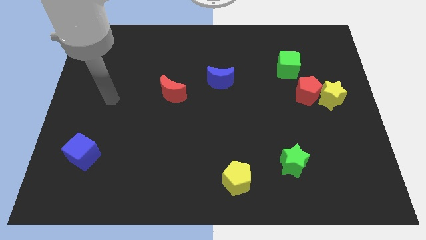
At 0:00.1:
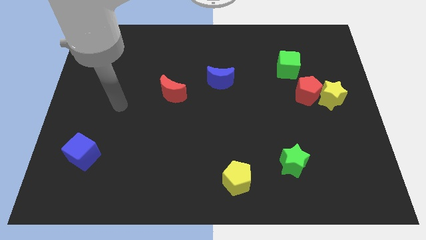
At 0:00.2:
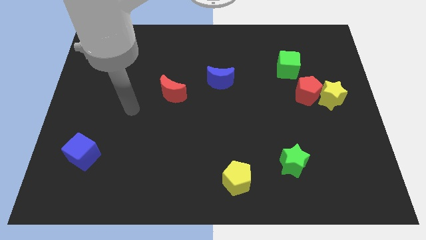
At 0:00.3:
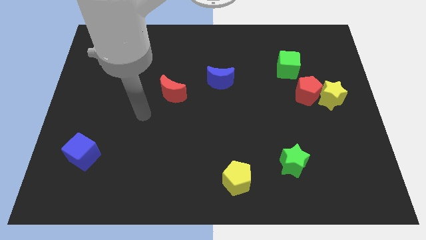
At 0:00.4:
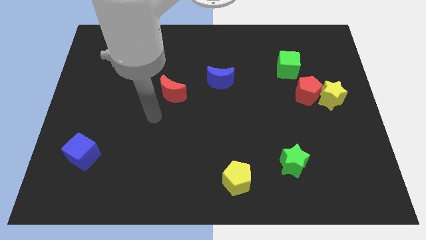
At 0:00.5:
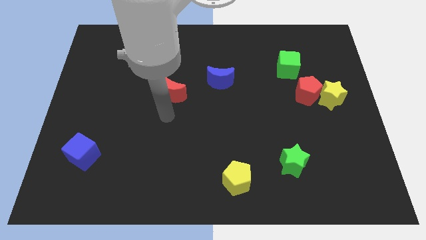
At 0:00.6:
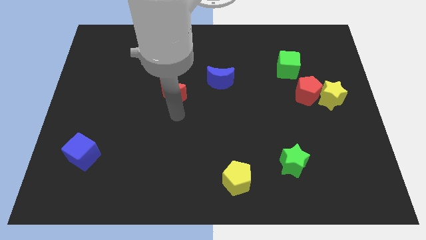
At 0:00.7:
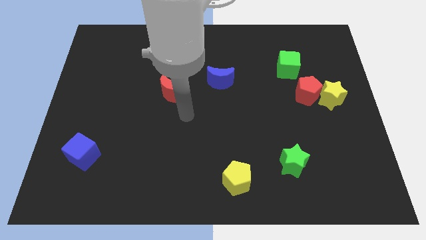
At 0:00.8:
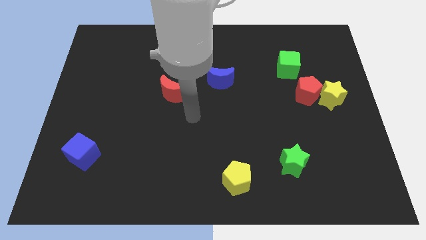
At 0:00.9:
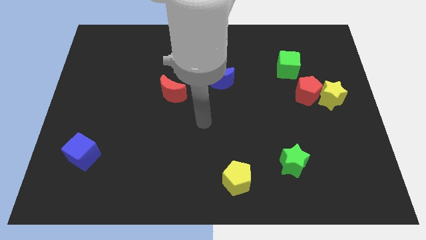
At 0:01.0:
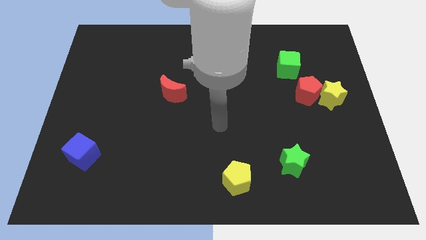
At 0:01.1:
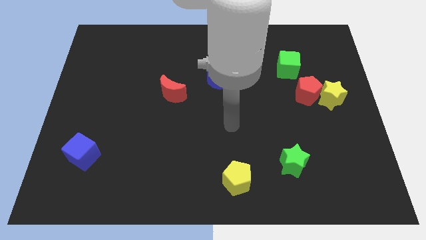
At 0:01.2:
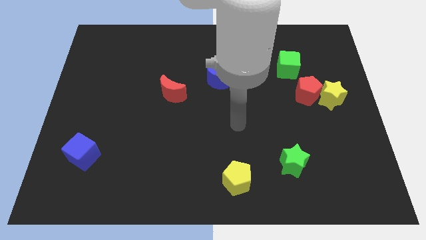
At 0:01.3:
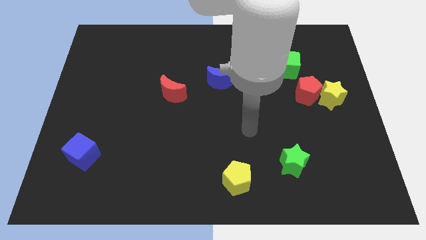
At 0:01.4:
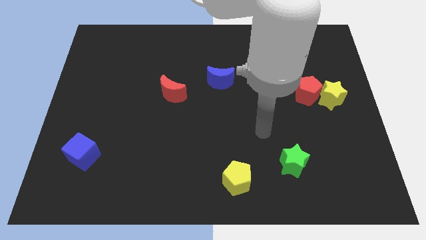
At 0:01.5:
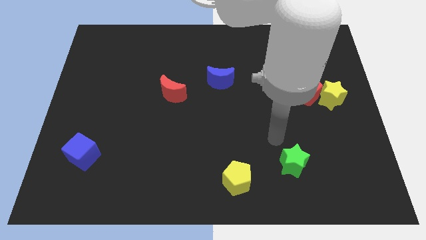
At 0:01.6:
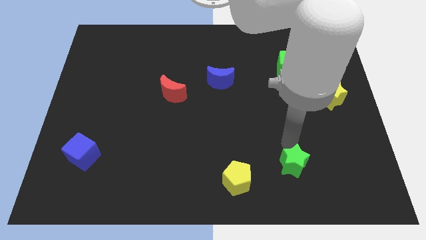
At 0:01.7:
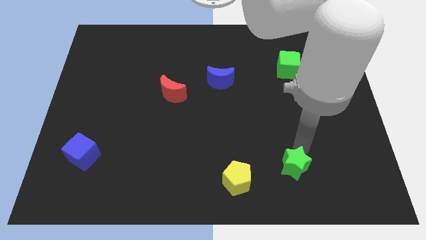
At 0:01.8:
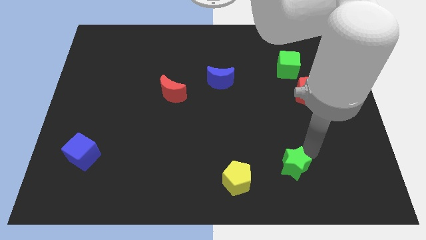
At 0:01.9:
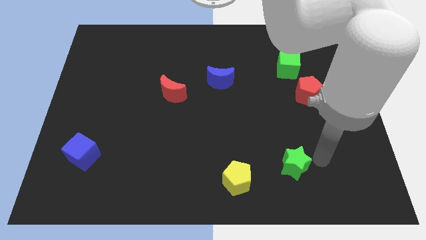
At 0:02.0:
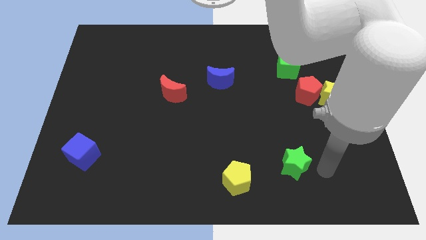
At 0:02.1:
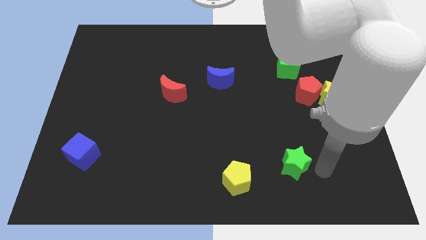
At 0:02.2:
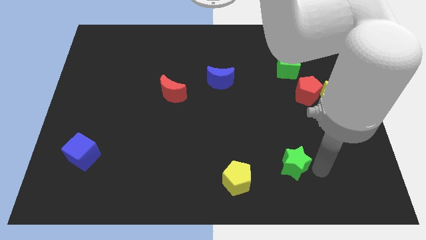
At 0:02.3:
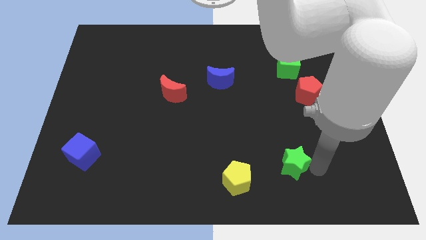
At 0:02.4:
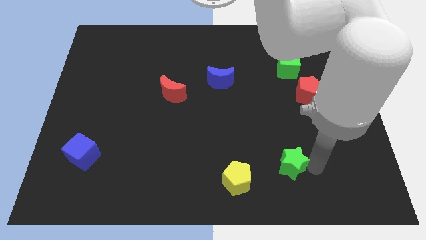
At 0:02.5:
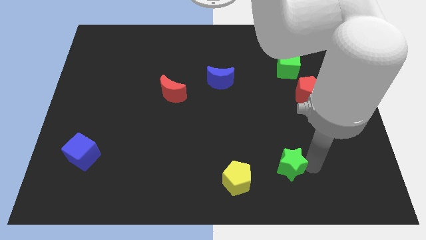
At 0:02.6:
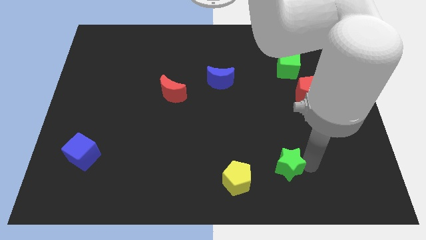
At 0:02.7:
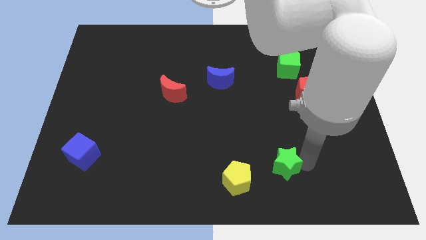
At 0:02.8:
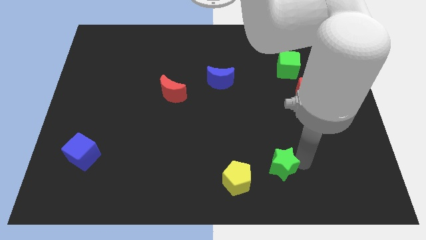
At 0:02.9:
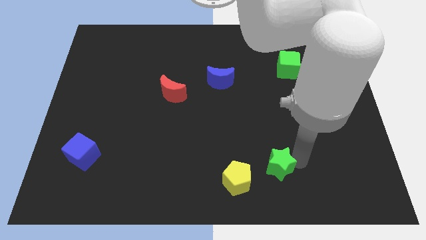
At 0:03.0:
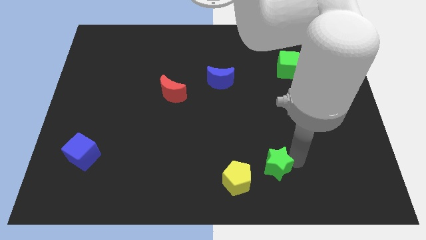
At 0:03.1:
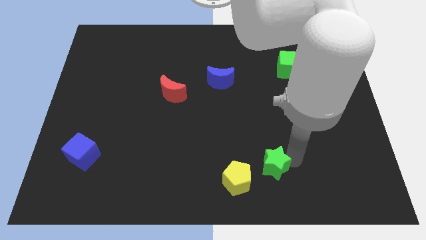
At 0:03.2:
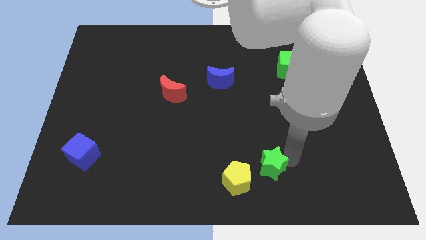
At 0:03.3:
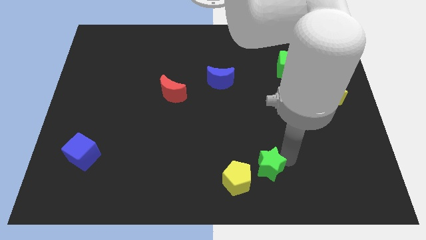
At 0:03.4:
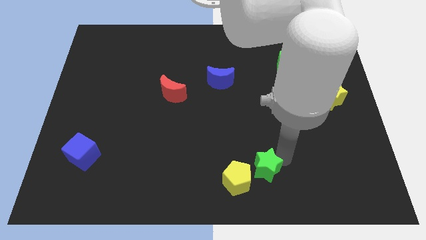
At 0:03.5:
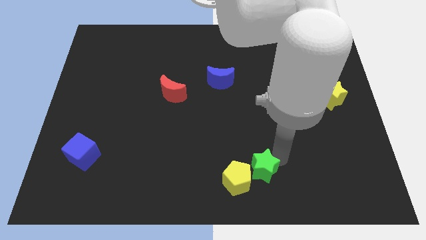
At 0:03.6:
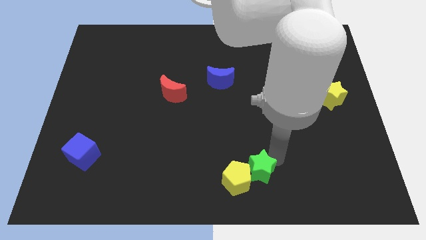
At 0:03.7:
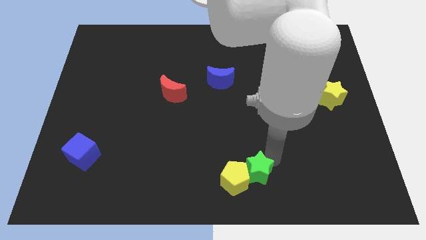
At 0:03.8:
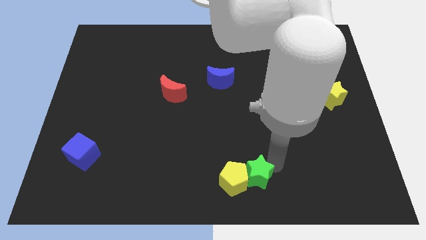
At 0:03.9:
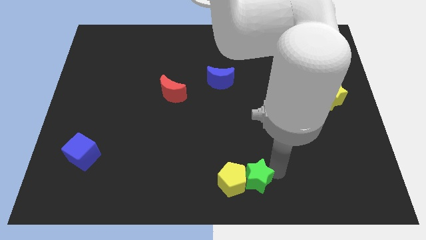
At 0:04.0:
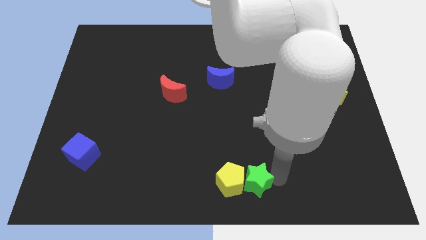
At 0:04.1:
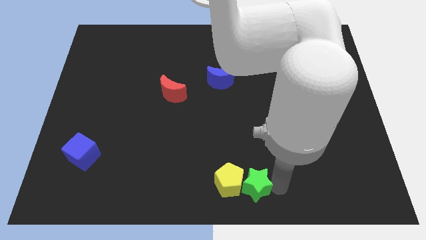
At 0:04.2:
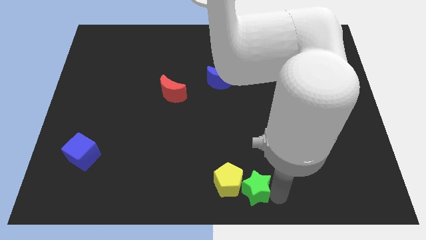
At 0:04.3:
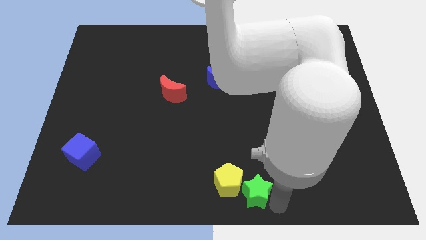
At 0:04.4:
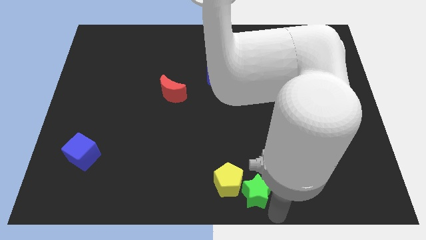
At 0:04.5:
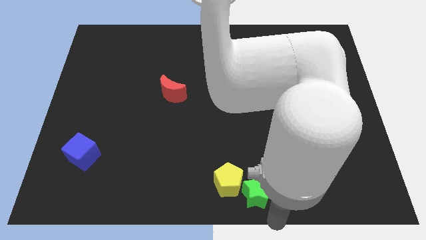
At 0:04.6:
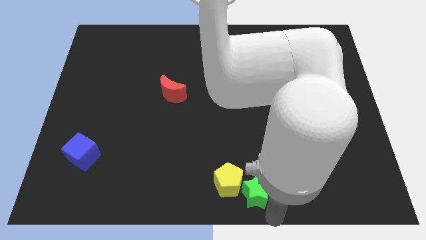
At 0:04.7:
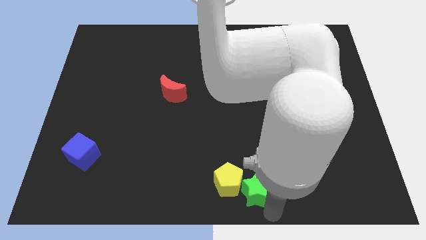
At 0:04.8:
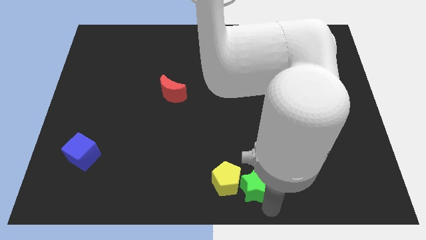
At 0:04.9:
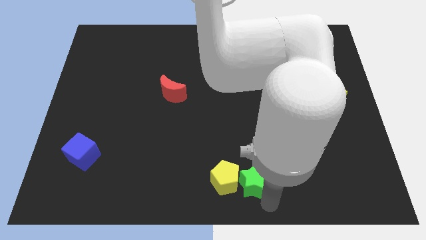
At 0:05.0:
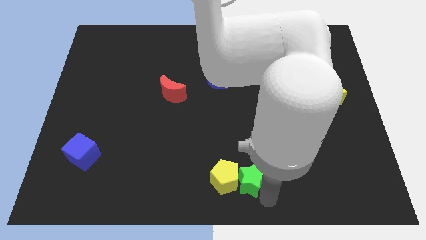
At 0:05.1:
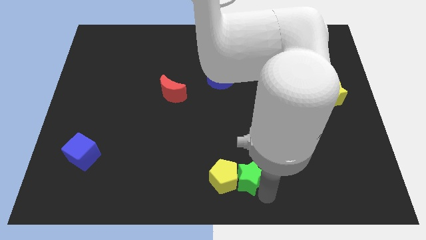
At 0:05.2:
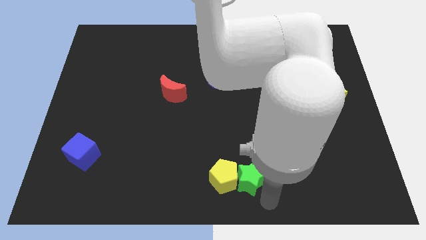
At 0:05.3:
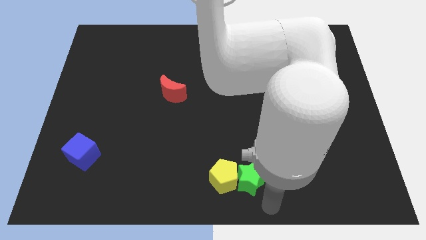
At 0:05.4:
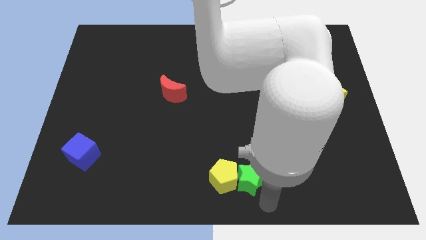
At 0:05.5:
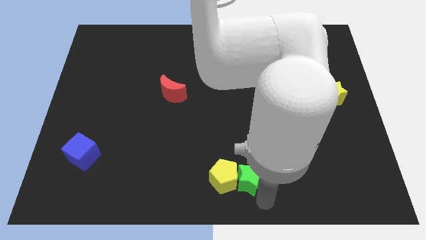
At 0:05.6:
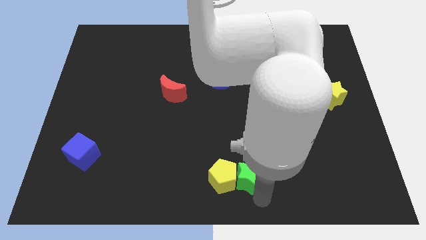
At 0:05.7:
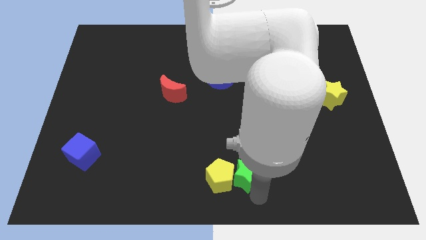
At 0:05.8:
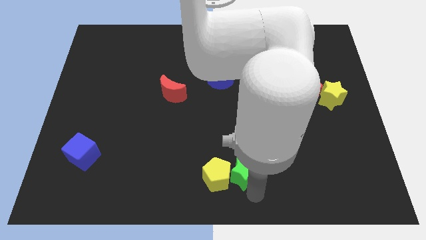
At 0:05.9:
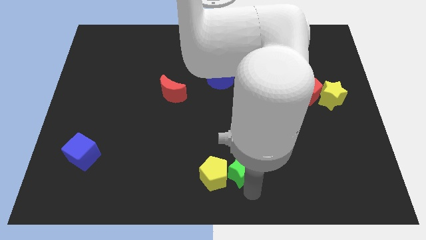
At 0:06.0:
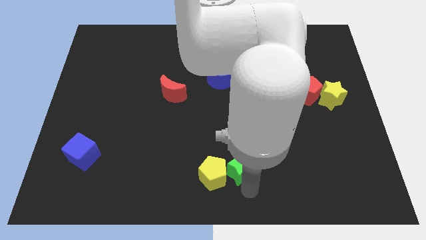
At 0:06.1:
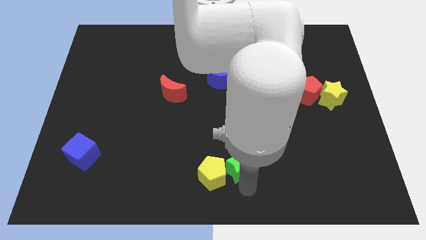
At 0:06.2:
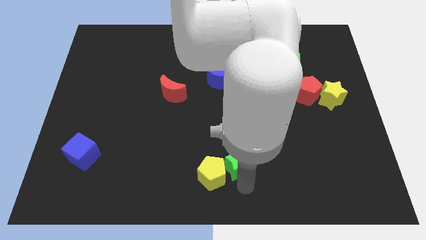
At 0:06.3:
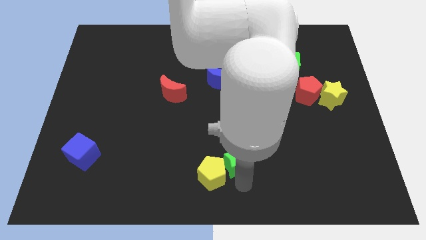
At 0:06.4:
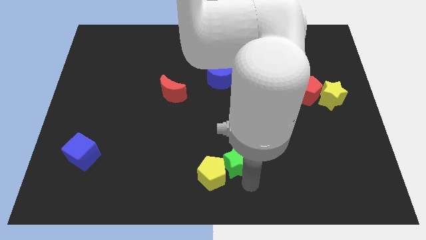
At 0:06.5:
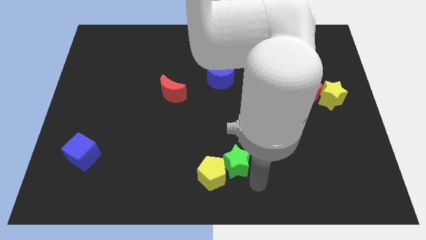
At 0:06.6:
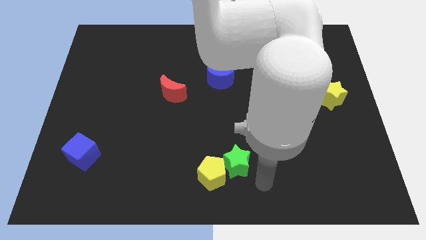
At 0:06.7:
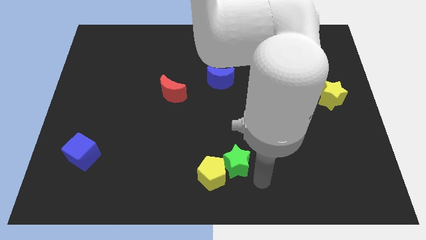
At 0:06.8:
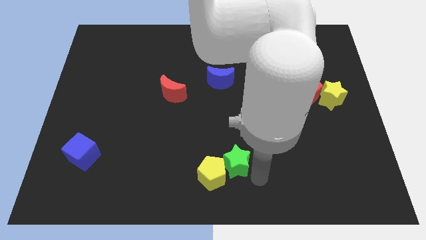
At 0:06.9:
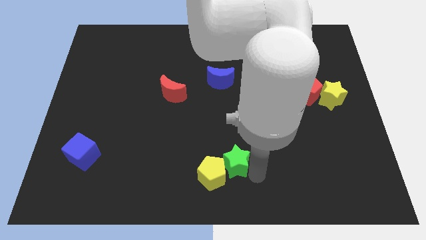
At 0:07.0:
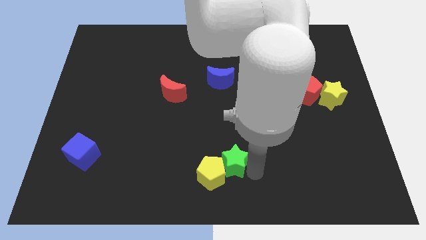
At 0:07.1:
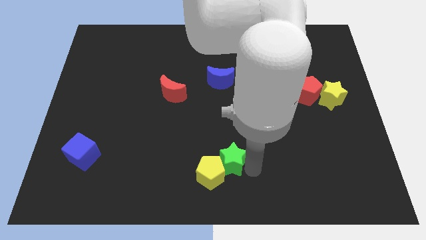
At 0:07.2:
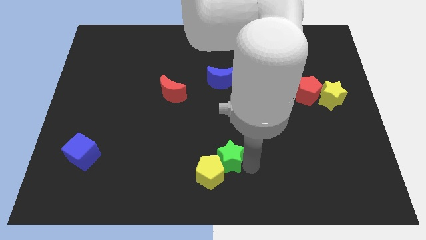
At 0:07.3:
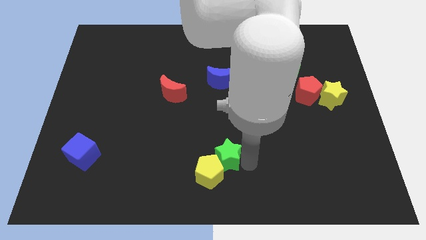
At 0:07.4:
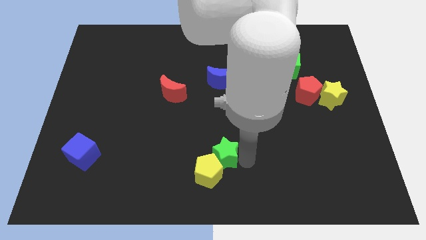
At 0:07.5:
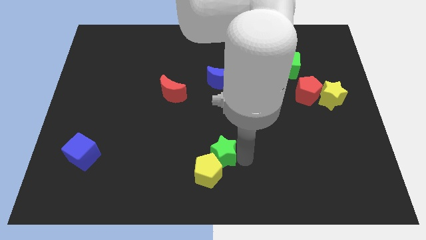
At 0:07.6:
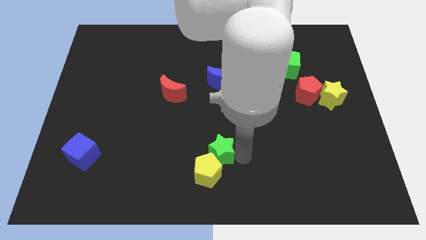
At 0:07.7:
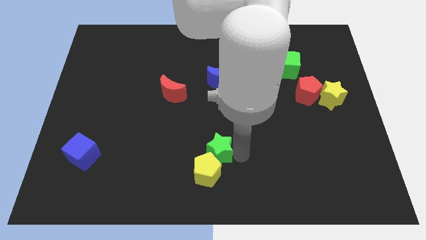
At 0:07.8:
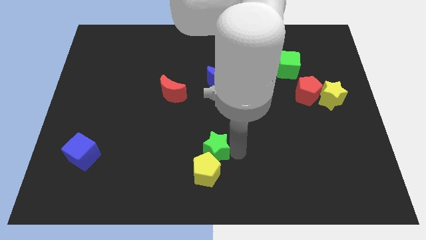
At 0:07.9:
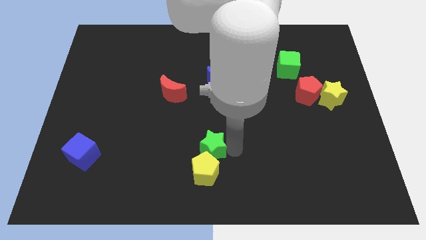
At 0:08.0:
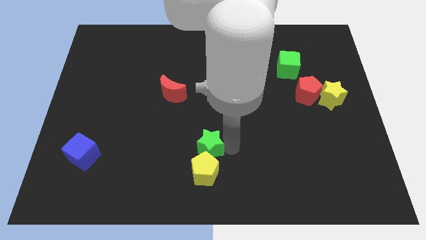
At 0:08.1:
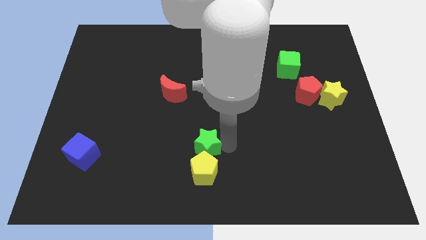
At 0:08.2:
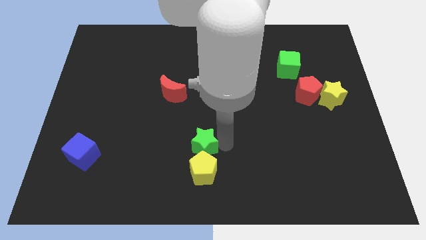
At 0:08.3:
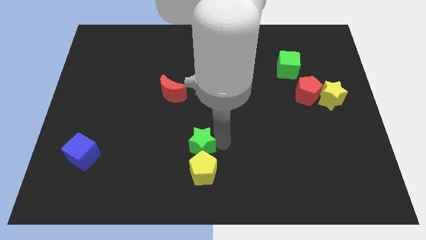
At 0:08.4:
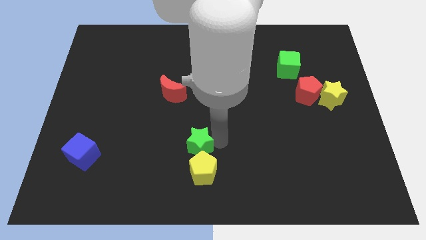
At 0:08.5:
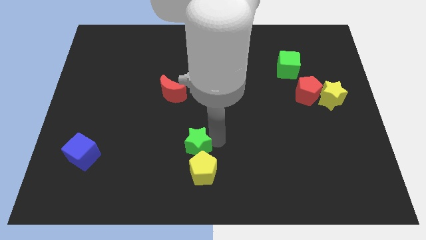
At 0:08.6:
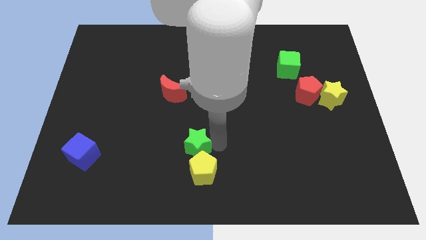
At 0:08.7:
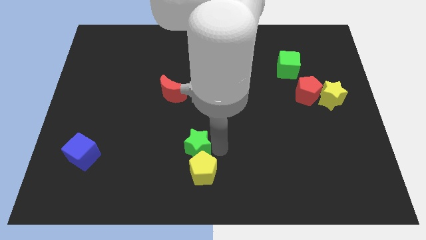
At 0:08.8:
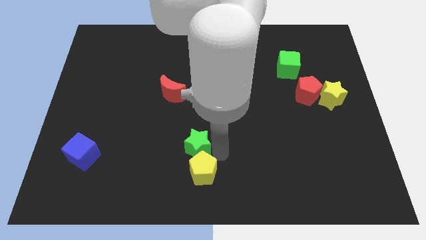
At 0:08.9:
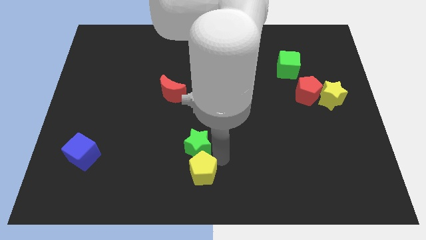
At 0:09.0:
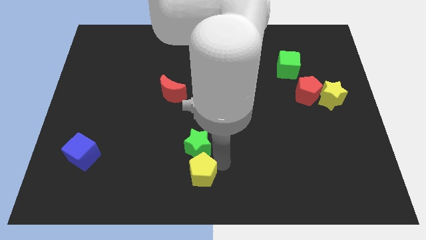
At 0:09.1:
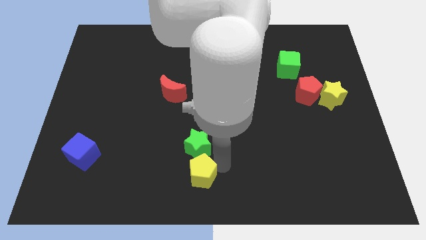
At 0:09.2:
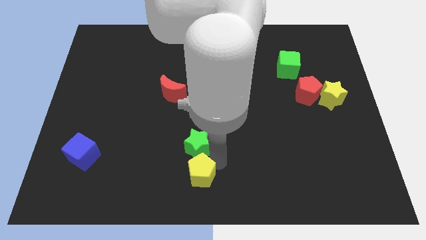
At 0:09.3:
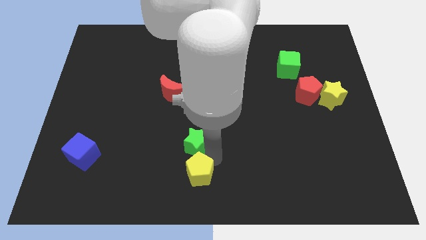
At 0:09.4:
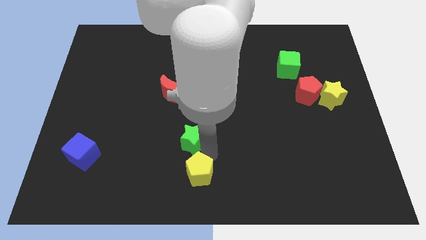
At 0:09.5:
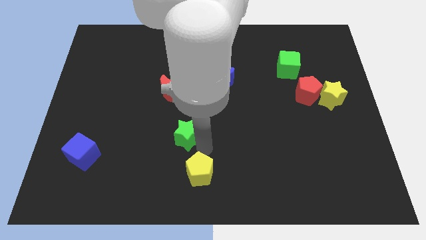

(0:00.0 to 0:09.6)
put the green star below the red moon
